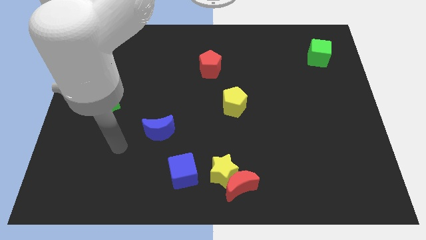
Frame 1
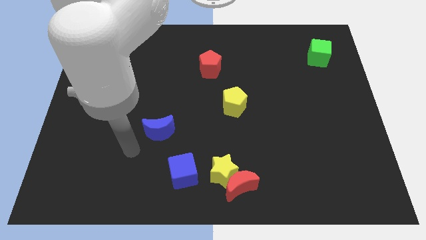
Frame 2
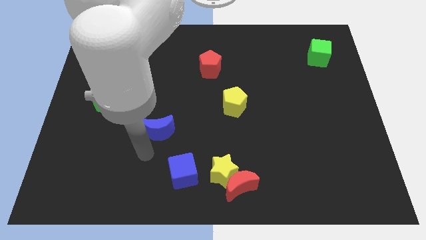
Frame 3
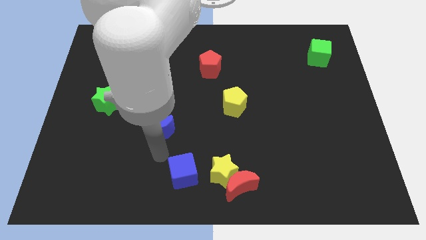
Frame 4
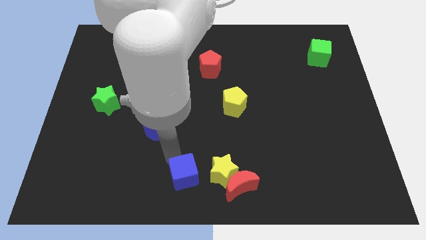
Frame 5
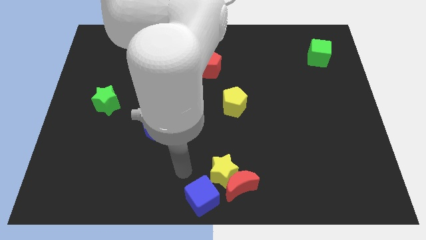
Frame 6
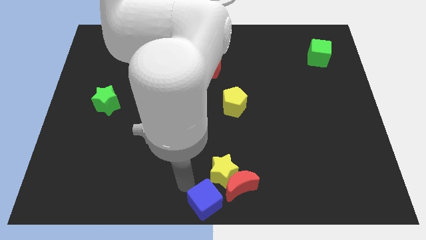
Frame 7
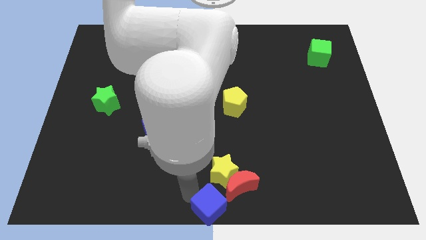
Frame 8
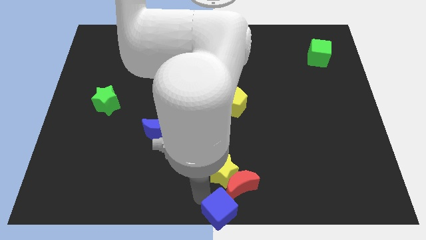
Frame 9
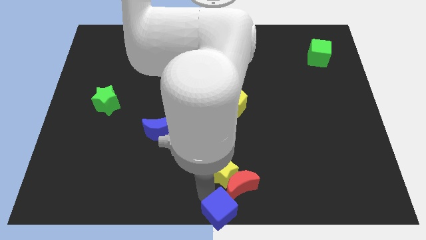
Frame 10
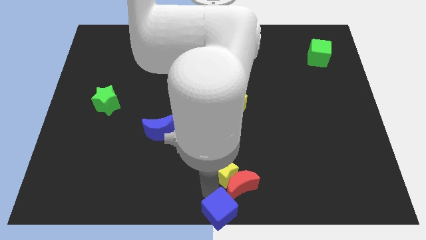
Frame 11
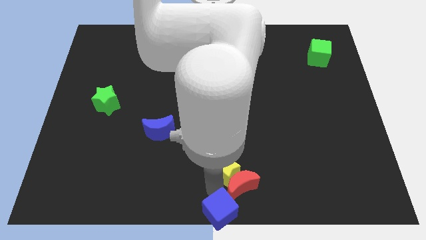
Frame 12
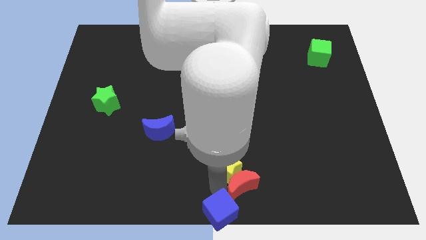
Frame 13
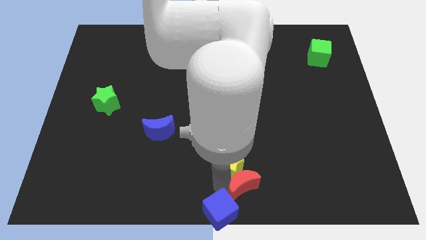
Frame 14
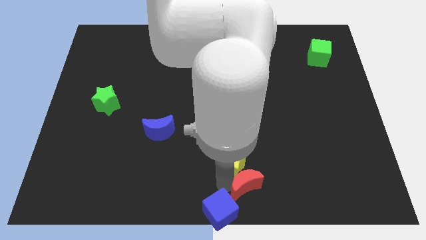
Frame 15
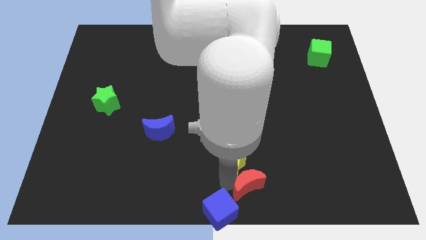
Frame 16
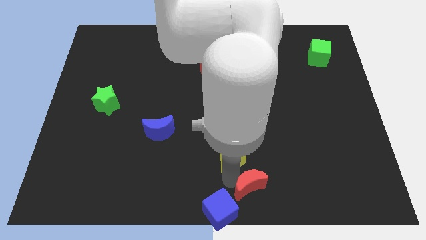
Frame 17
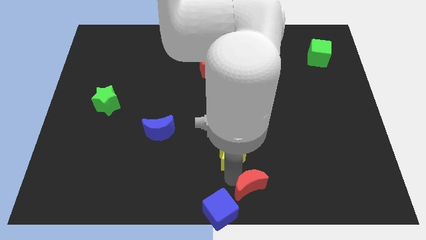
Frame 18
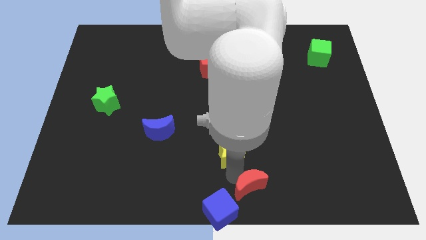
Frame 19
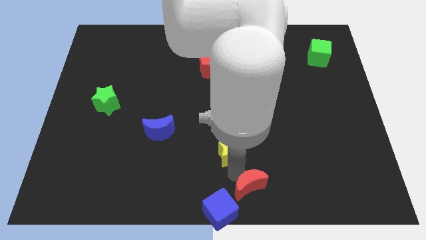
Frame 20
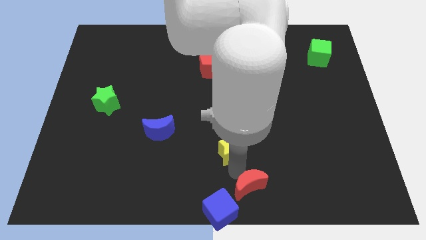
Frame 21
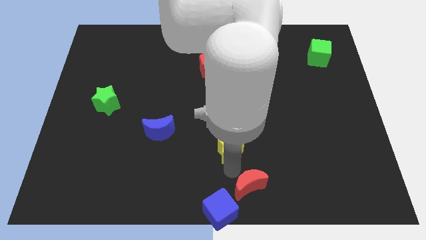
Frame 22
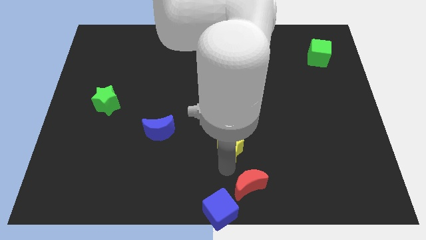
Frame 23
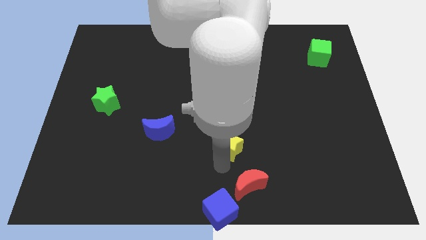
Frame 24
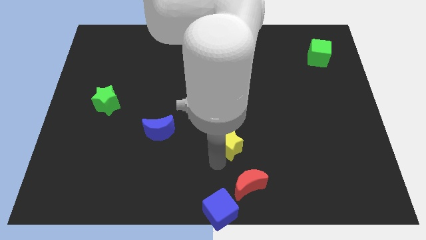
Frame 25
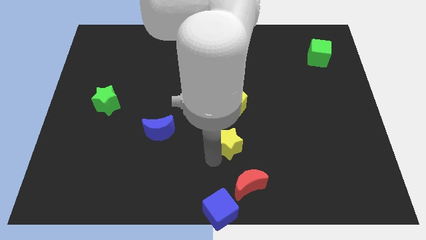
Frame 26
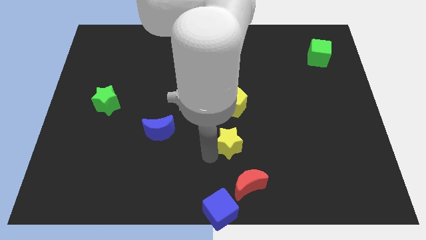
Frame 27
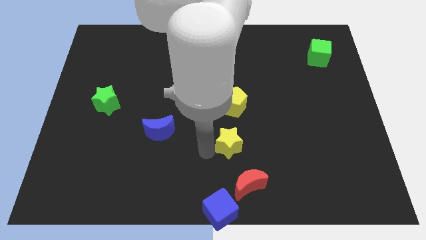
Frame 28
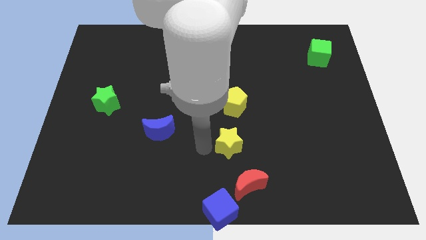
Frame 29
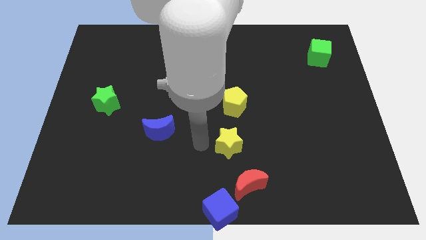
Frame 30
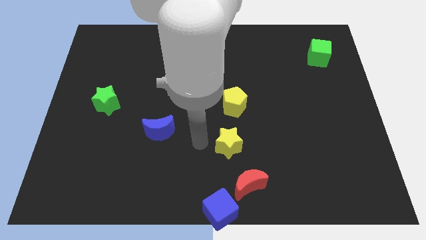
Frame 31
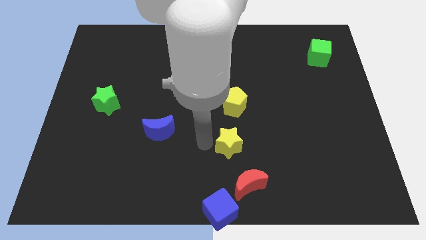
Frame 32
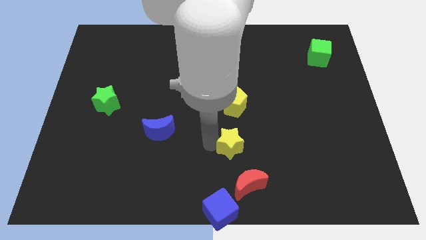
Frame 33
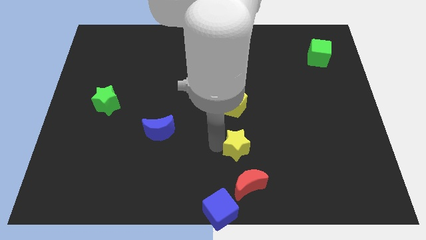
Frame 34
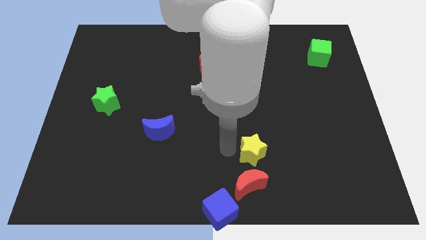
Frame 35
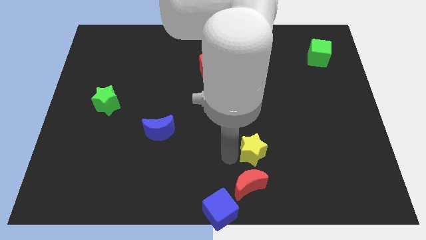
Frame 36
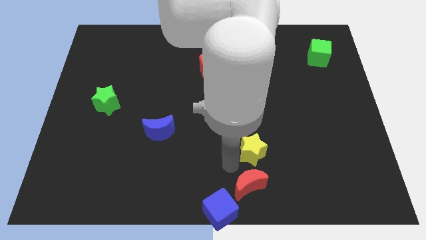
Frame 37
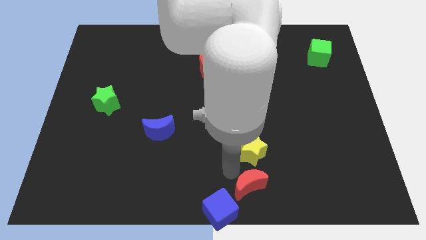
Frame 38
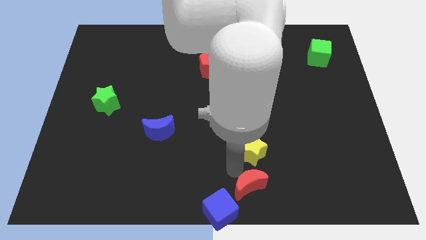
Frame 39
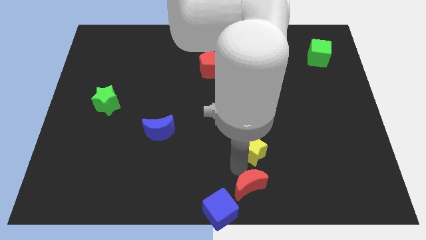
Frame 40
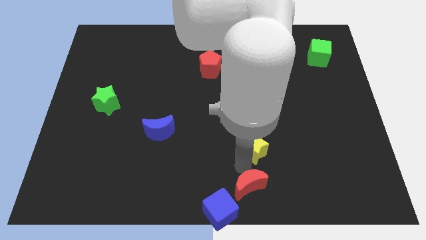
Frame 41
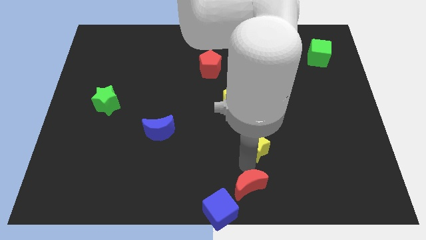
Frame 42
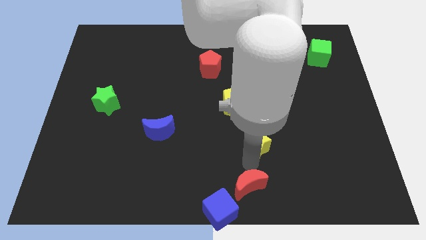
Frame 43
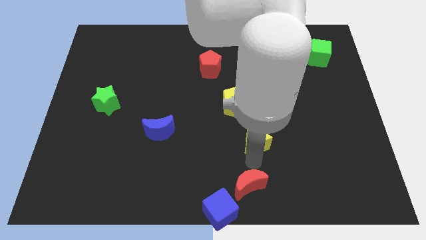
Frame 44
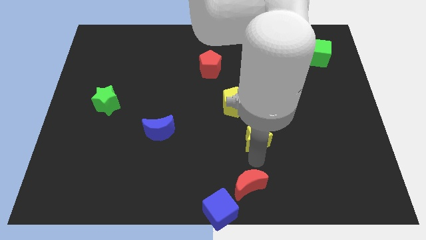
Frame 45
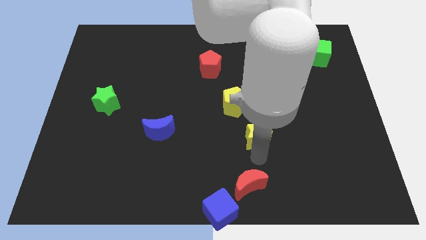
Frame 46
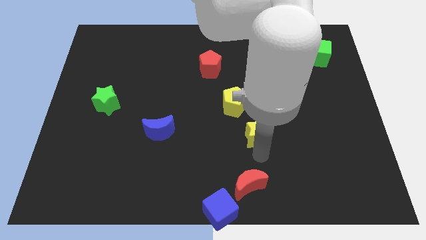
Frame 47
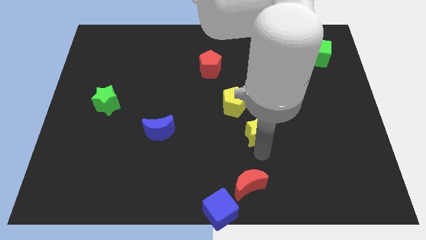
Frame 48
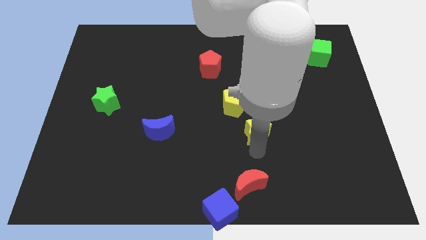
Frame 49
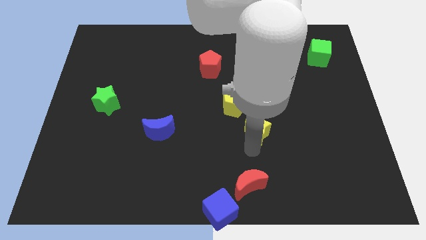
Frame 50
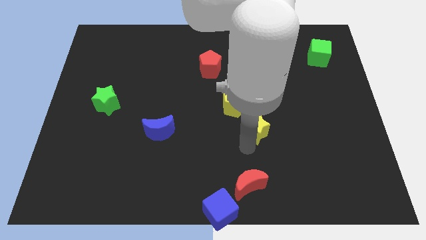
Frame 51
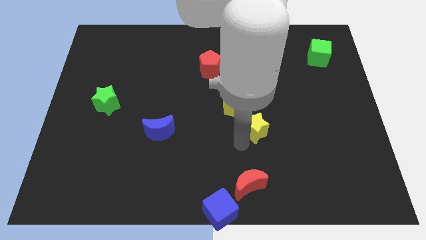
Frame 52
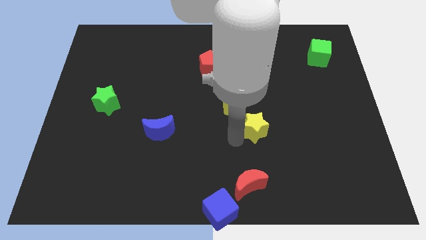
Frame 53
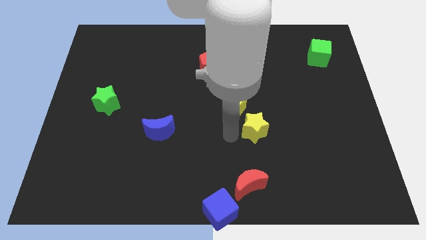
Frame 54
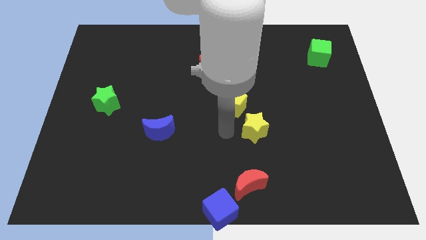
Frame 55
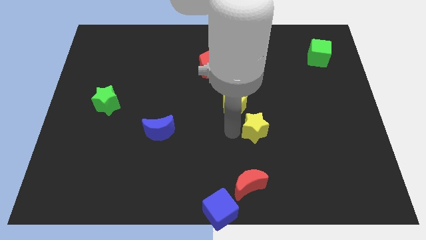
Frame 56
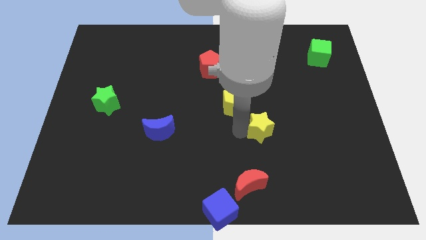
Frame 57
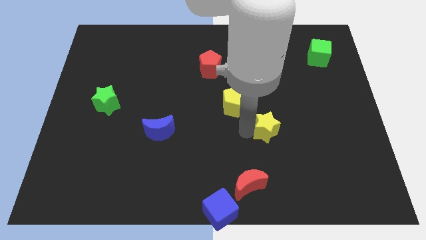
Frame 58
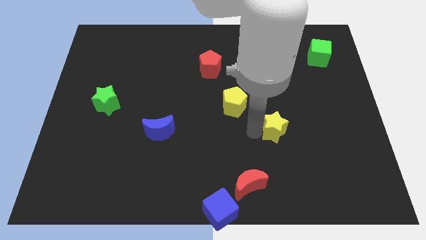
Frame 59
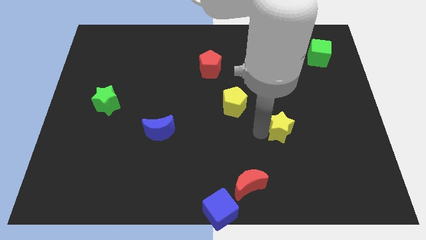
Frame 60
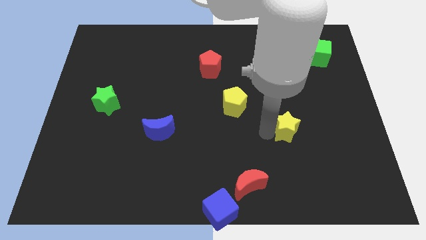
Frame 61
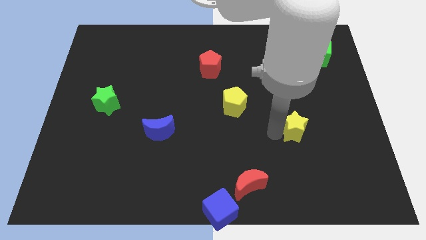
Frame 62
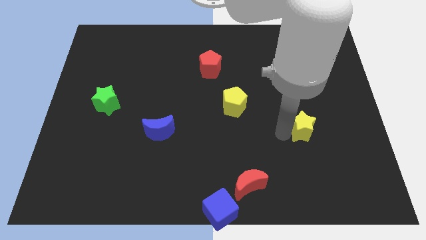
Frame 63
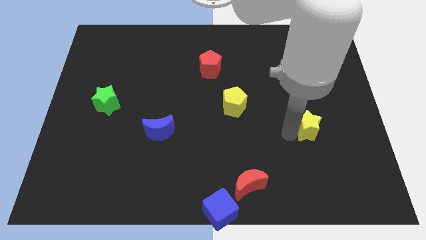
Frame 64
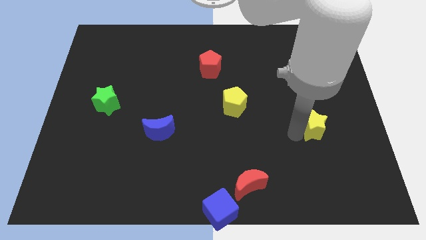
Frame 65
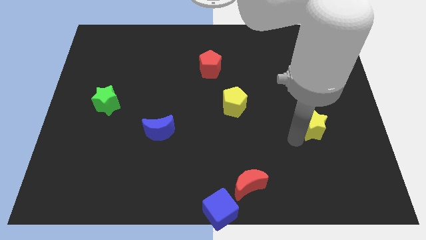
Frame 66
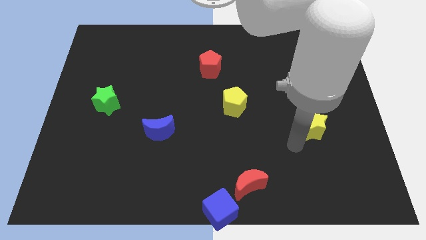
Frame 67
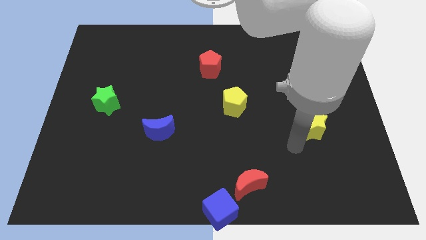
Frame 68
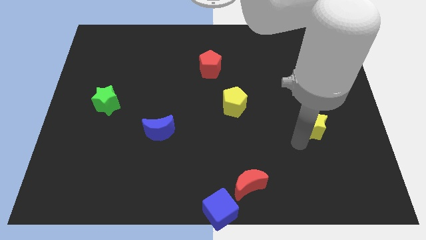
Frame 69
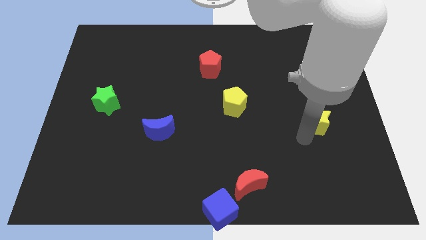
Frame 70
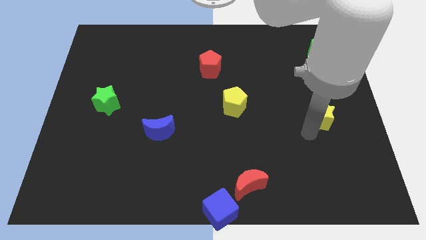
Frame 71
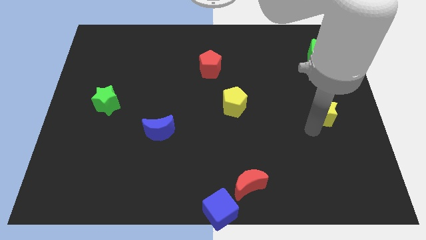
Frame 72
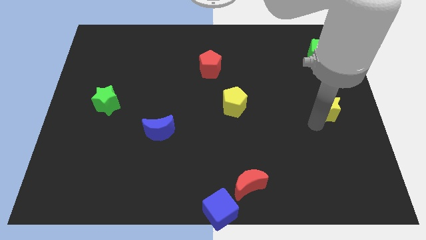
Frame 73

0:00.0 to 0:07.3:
put the yellow star to the right side

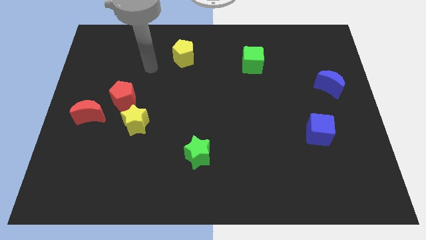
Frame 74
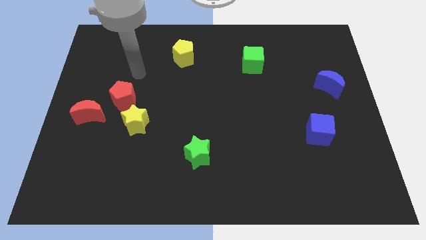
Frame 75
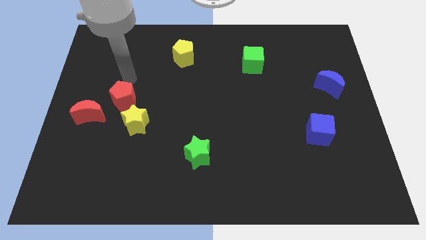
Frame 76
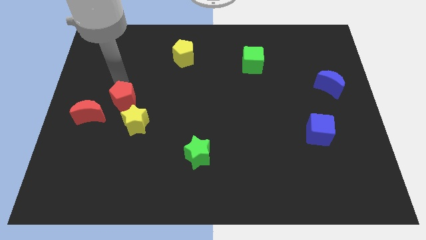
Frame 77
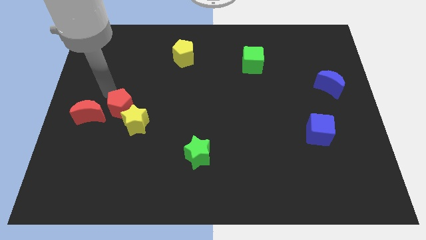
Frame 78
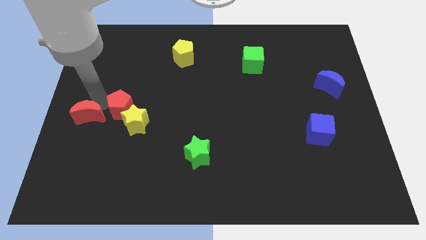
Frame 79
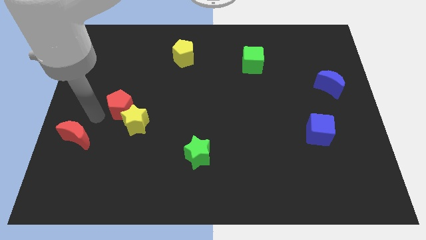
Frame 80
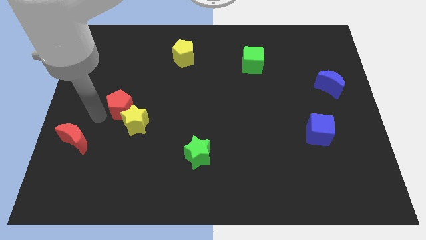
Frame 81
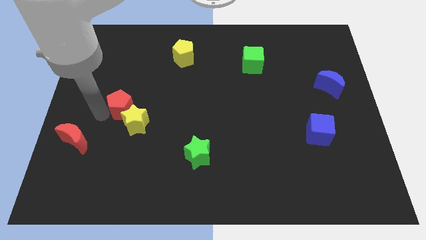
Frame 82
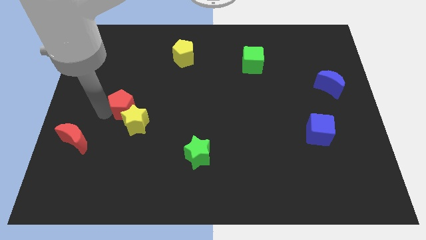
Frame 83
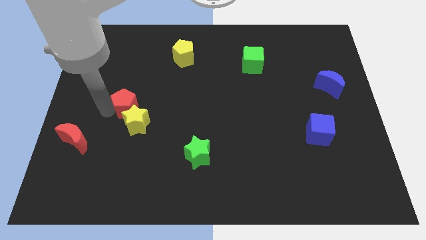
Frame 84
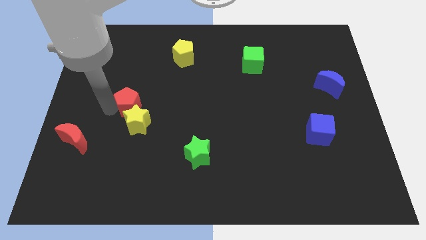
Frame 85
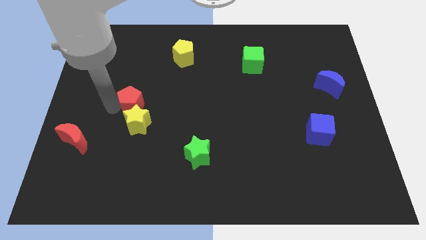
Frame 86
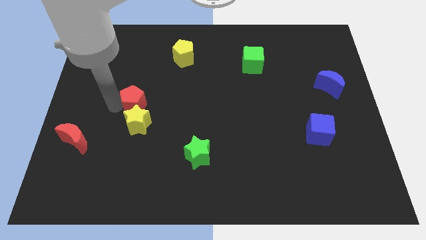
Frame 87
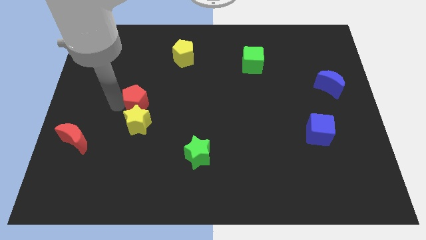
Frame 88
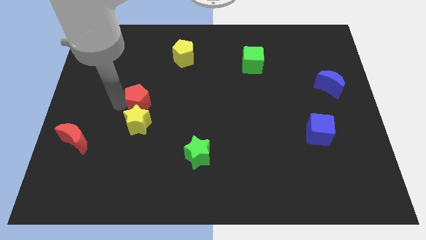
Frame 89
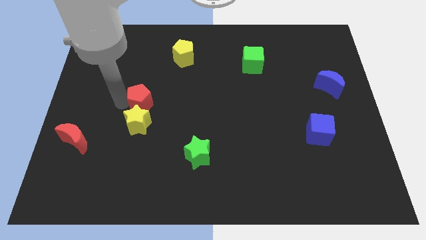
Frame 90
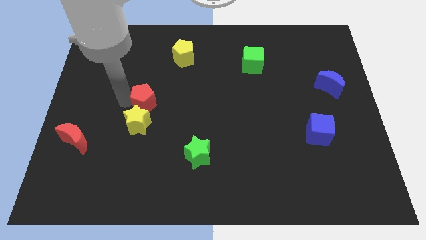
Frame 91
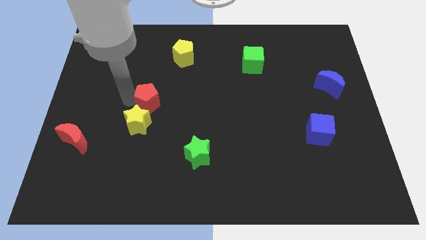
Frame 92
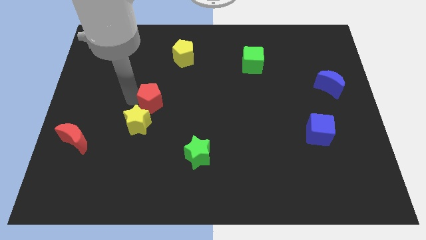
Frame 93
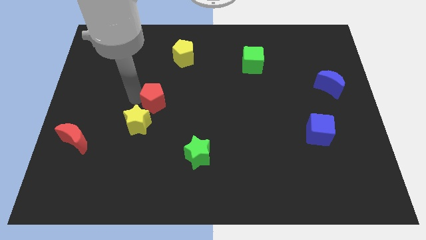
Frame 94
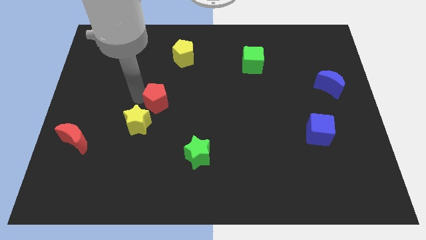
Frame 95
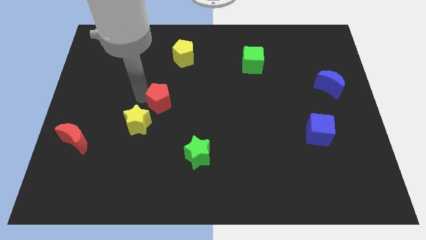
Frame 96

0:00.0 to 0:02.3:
push the red pentagon to the middle of the board
